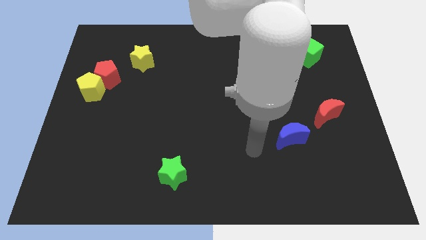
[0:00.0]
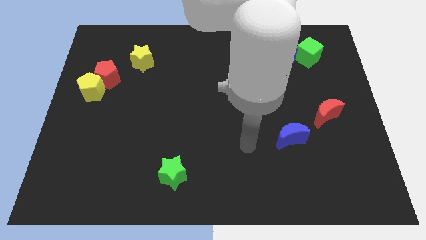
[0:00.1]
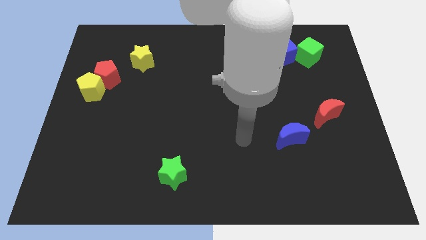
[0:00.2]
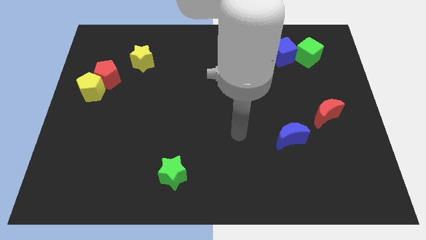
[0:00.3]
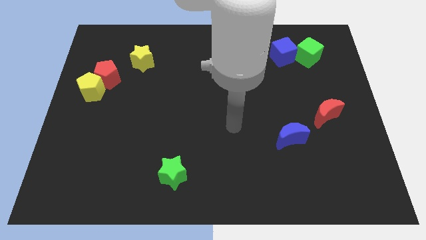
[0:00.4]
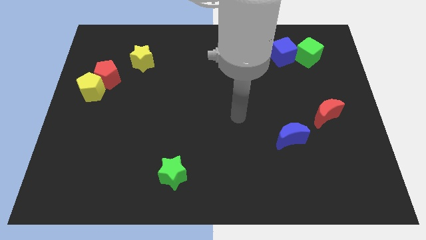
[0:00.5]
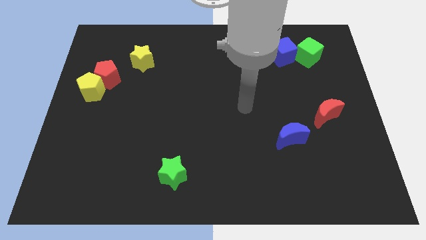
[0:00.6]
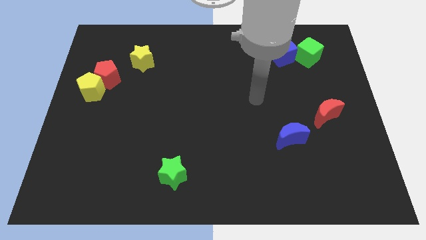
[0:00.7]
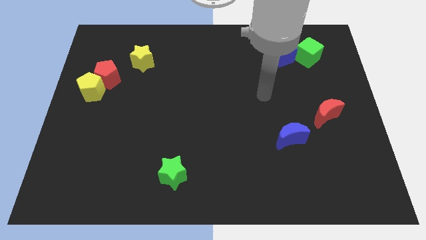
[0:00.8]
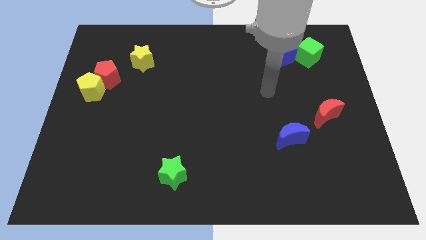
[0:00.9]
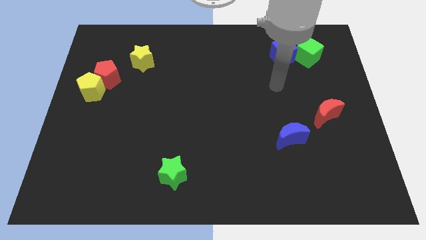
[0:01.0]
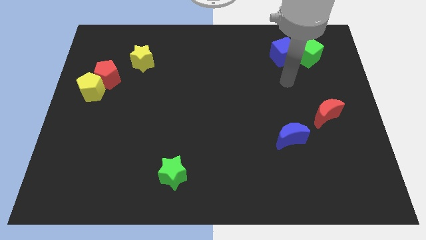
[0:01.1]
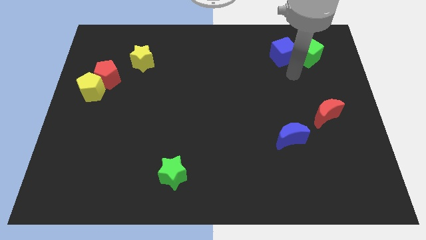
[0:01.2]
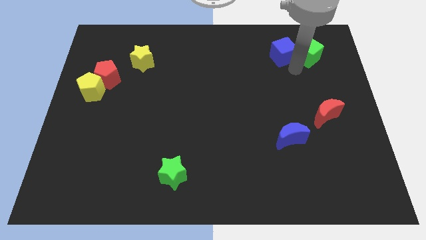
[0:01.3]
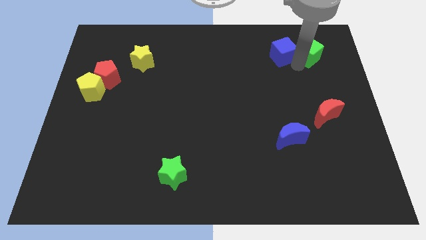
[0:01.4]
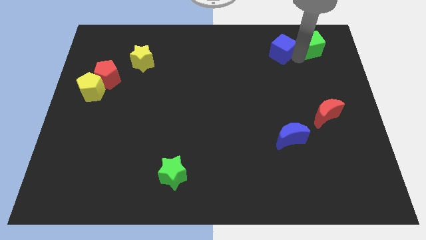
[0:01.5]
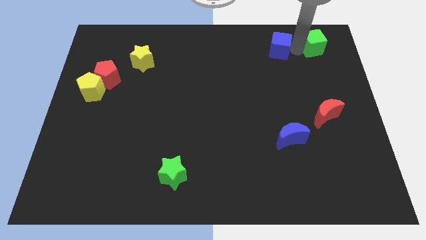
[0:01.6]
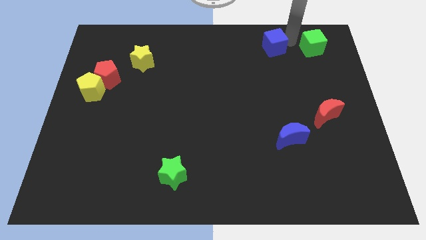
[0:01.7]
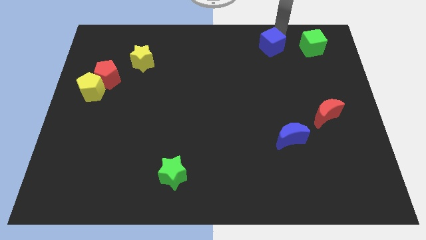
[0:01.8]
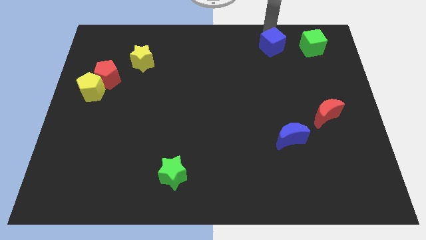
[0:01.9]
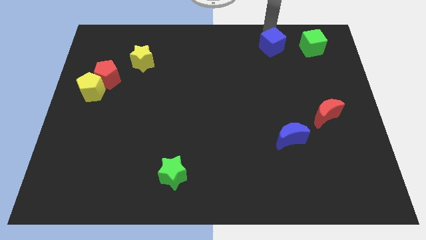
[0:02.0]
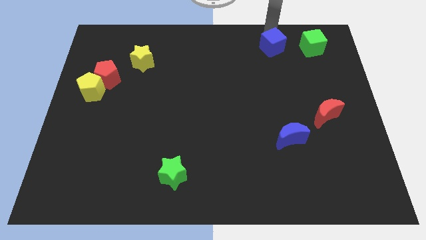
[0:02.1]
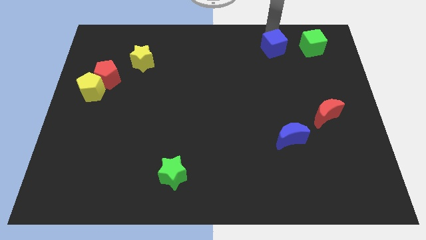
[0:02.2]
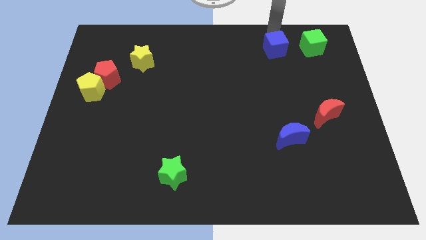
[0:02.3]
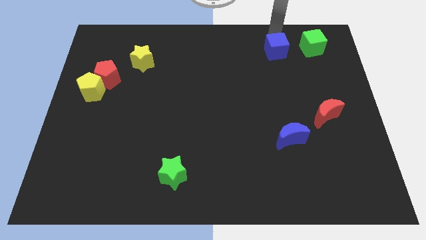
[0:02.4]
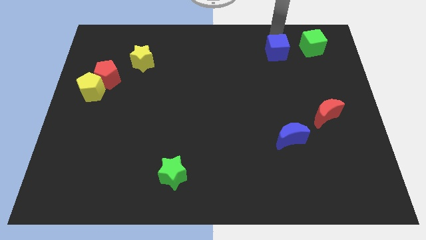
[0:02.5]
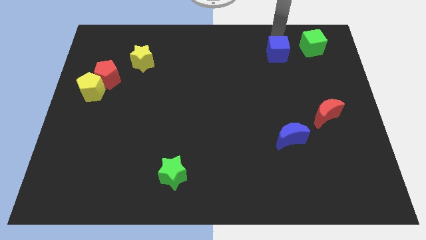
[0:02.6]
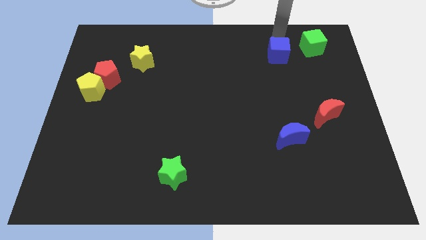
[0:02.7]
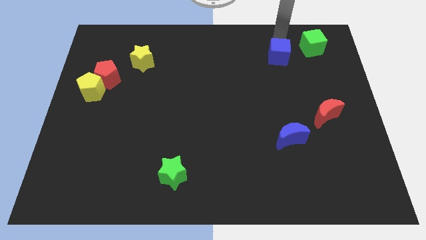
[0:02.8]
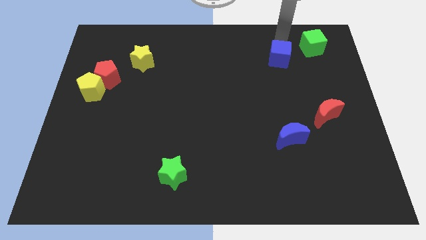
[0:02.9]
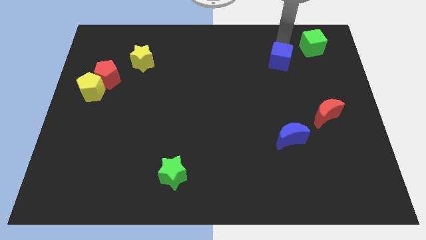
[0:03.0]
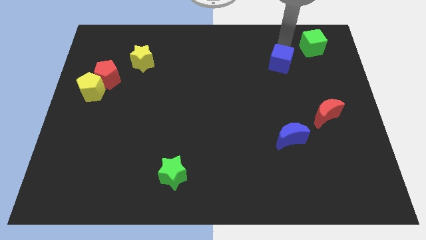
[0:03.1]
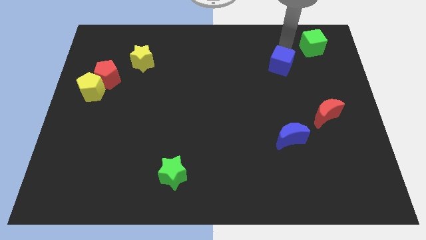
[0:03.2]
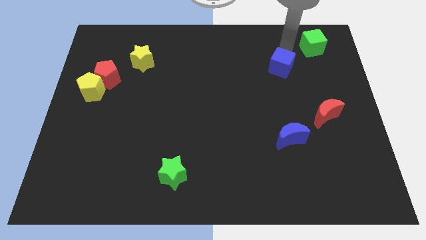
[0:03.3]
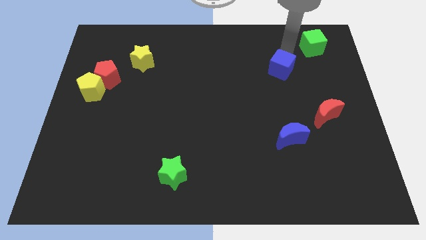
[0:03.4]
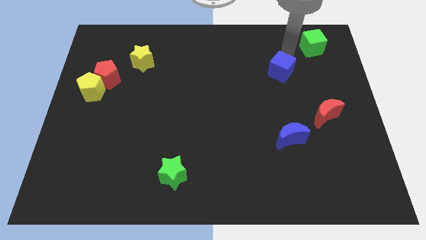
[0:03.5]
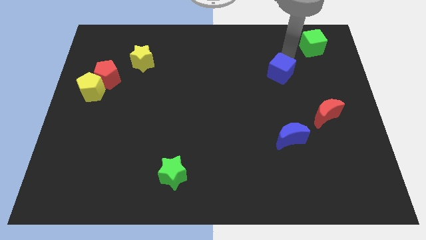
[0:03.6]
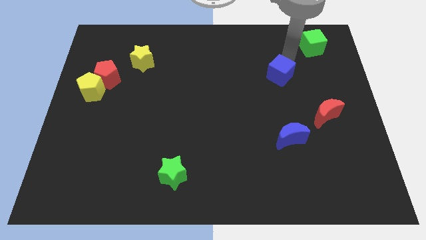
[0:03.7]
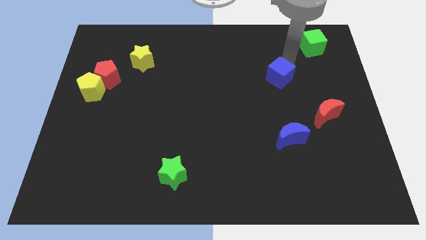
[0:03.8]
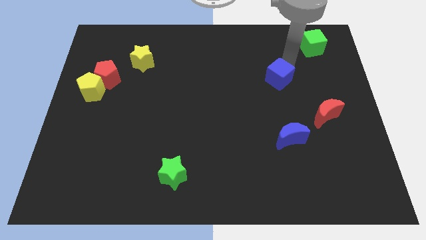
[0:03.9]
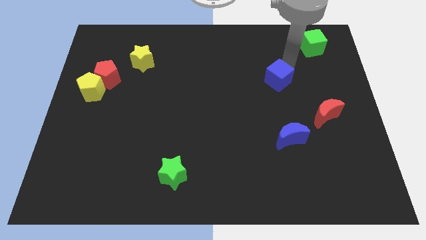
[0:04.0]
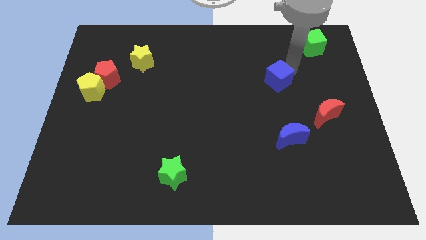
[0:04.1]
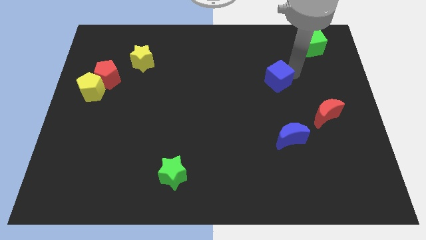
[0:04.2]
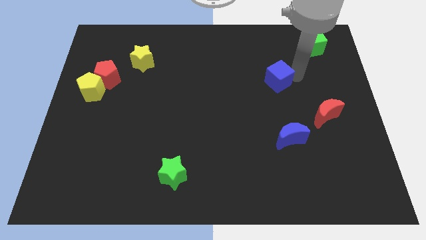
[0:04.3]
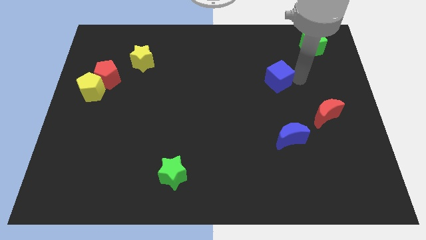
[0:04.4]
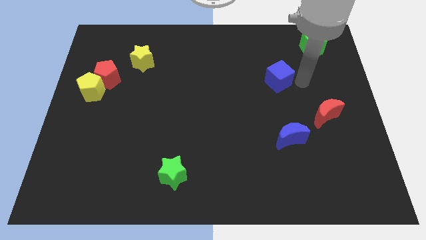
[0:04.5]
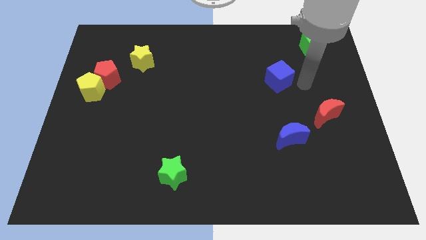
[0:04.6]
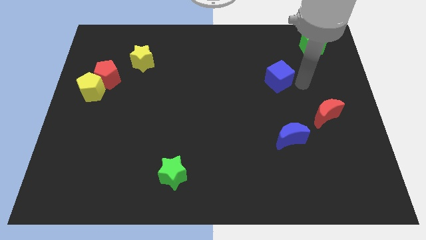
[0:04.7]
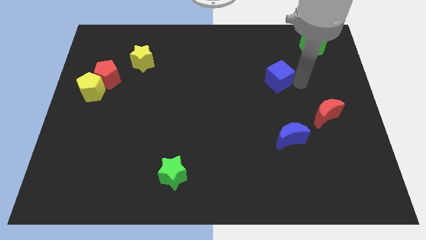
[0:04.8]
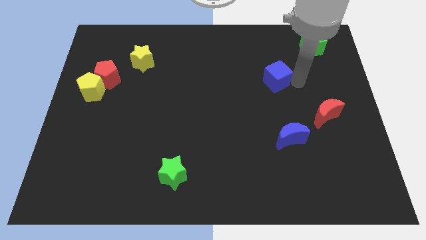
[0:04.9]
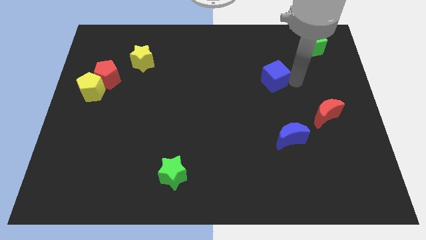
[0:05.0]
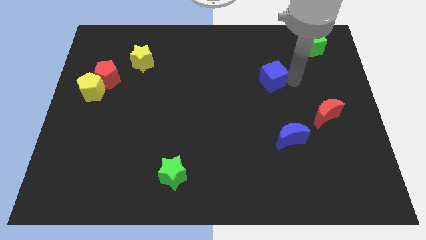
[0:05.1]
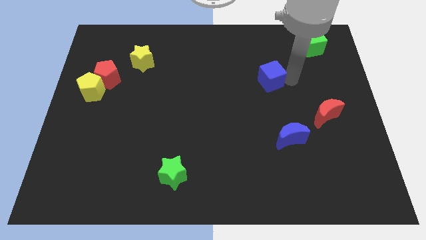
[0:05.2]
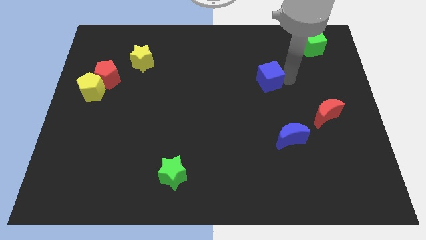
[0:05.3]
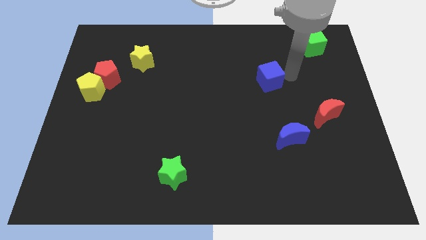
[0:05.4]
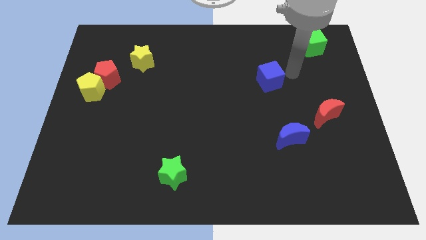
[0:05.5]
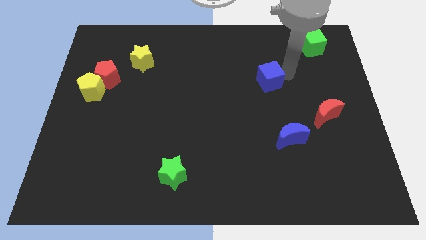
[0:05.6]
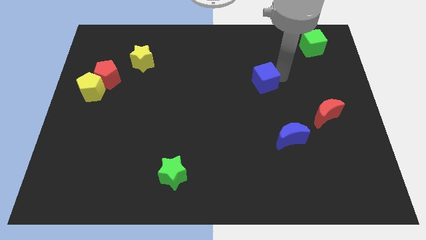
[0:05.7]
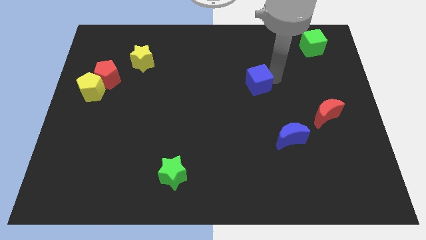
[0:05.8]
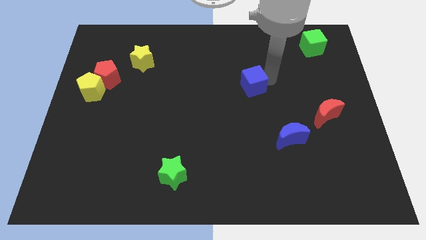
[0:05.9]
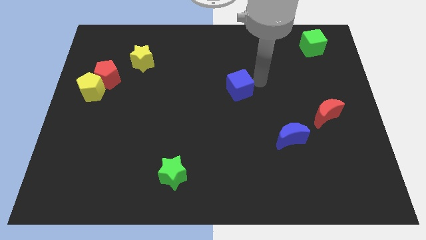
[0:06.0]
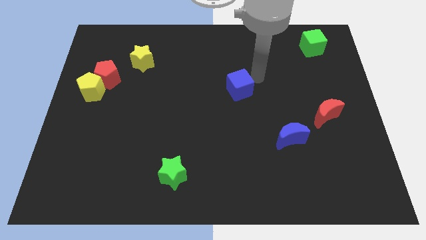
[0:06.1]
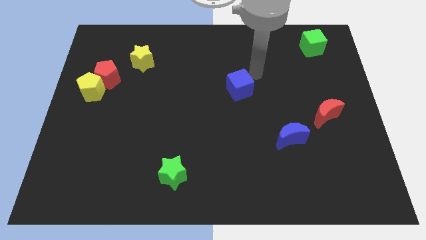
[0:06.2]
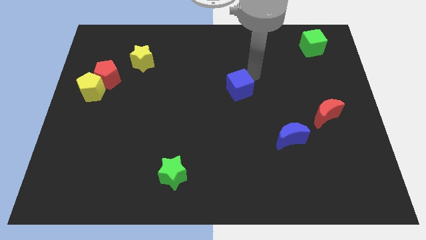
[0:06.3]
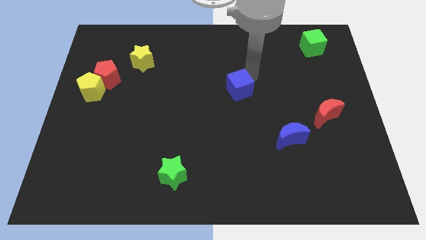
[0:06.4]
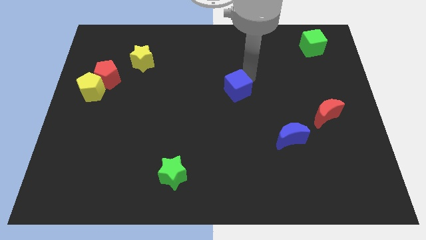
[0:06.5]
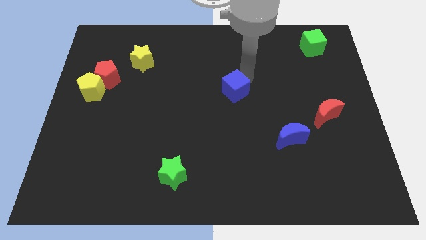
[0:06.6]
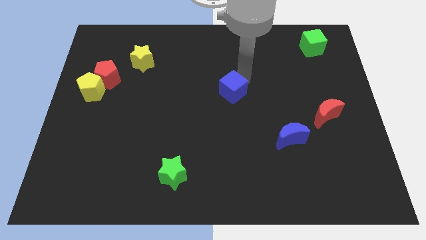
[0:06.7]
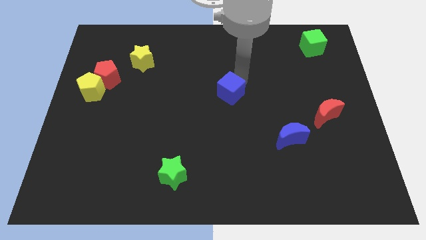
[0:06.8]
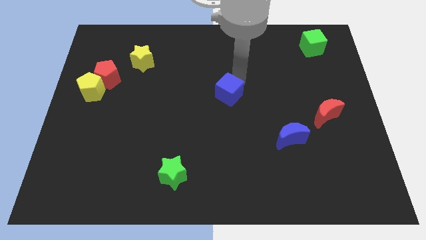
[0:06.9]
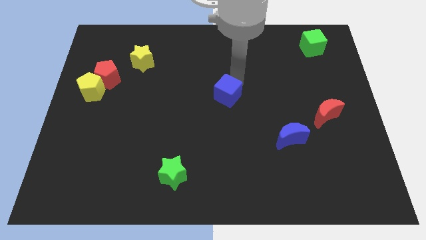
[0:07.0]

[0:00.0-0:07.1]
move the blue cube downwards and to the left

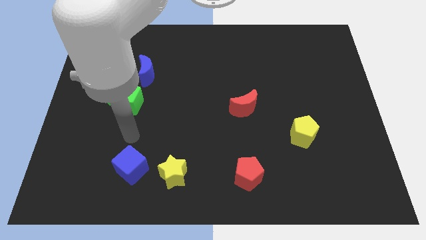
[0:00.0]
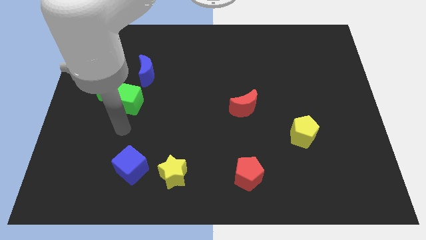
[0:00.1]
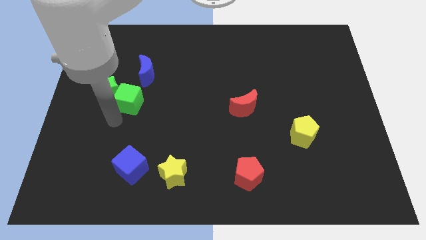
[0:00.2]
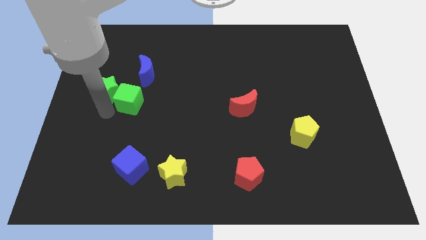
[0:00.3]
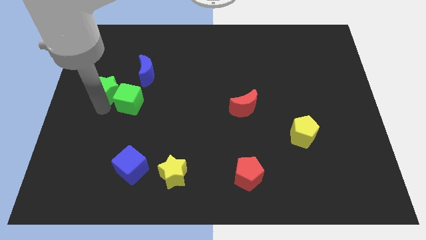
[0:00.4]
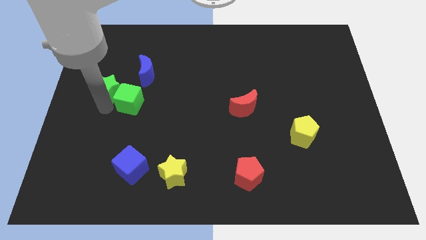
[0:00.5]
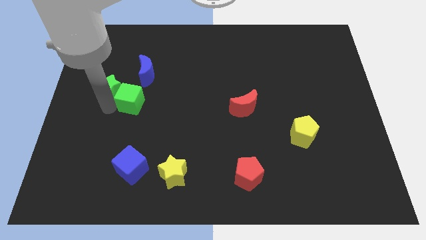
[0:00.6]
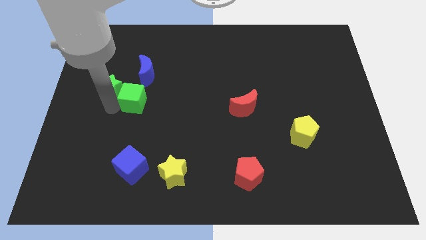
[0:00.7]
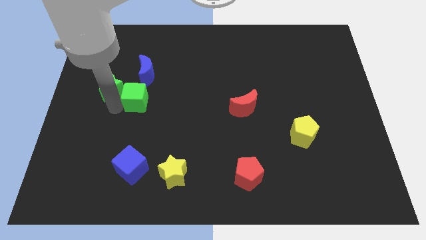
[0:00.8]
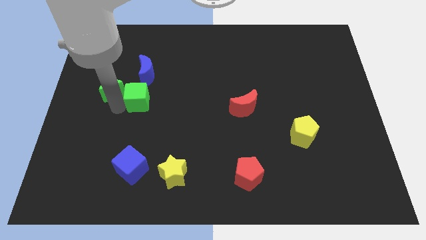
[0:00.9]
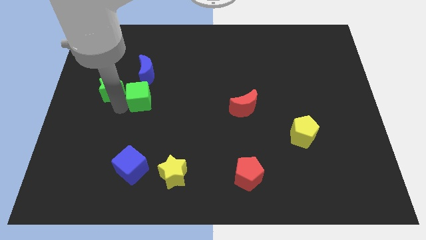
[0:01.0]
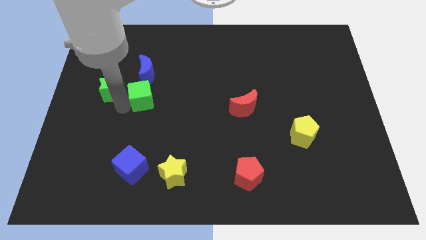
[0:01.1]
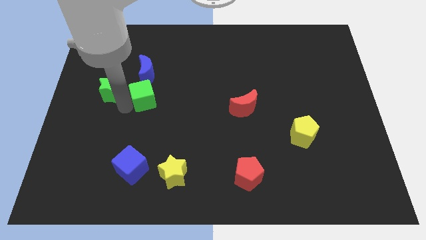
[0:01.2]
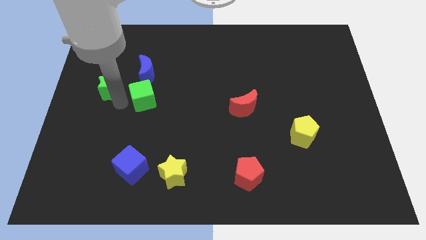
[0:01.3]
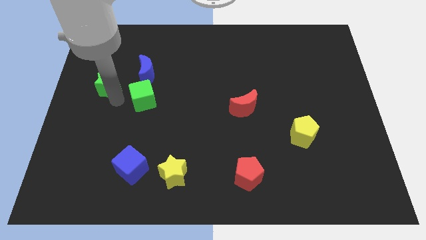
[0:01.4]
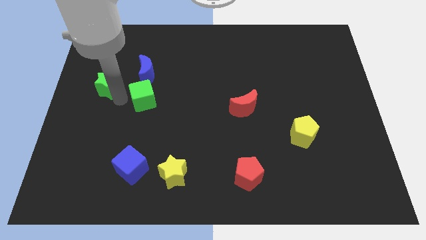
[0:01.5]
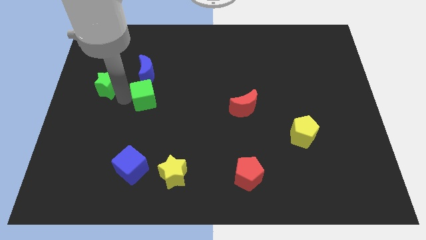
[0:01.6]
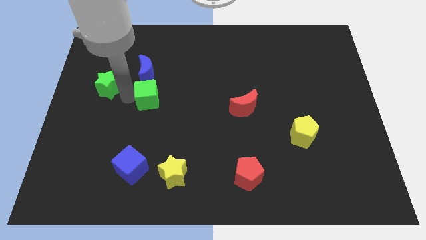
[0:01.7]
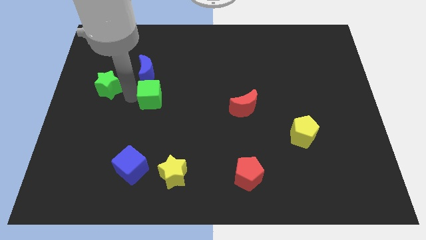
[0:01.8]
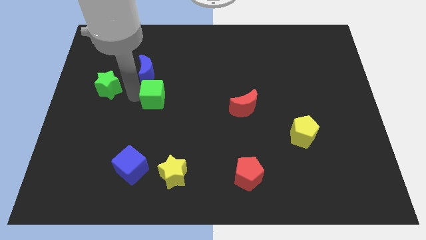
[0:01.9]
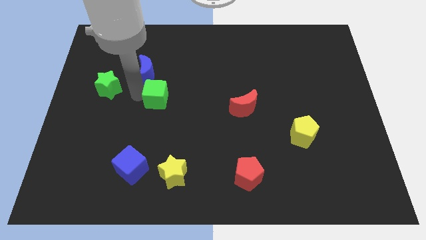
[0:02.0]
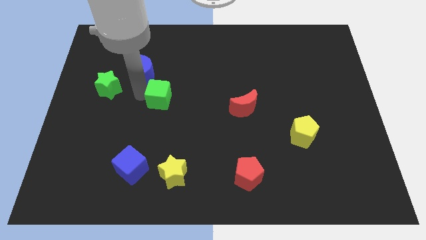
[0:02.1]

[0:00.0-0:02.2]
slightly move the green cube to the right
